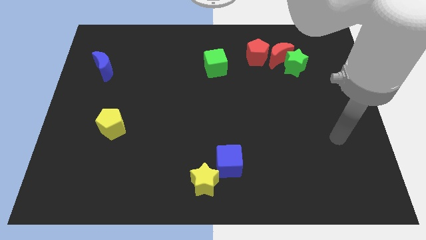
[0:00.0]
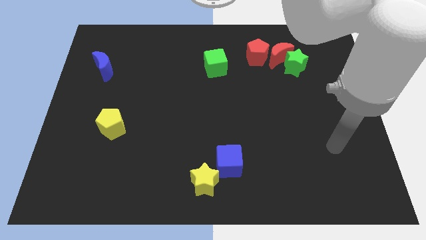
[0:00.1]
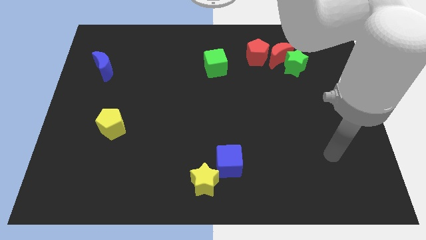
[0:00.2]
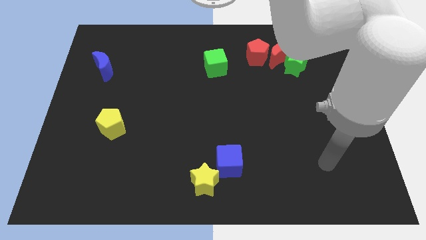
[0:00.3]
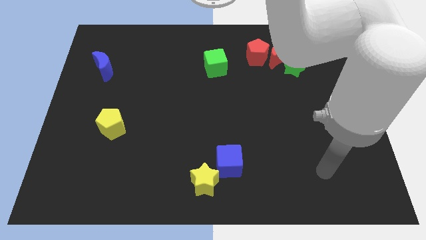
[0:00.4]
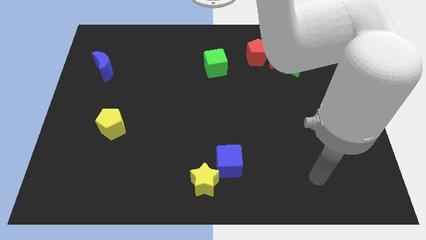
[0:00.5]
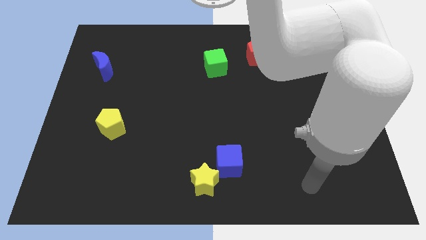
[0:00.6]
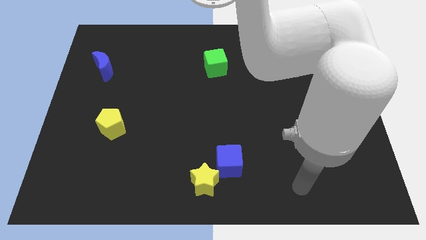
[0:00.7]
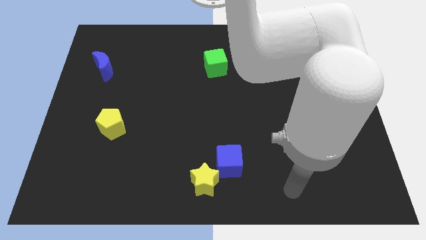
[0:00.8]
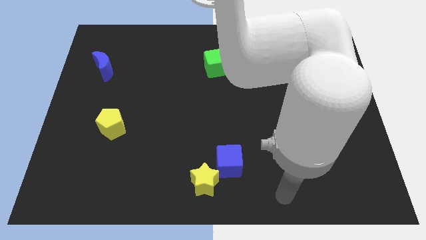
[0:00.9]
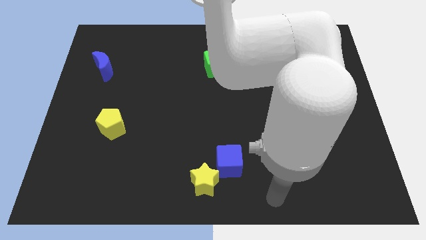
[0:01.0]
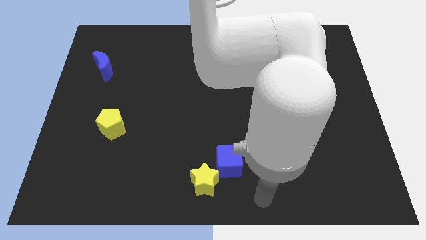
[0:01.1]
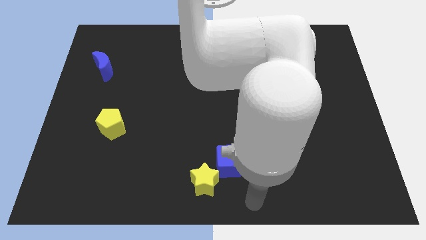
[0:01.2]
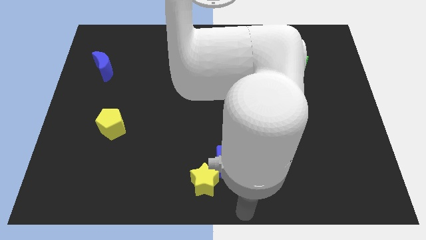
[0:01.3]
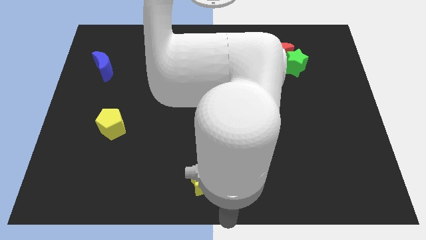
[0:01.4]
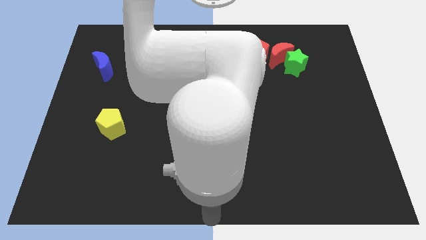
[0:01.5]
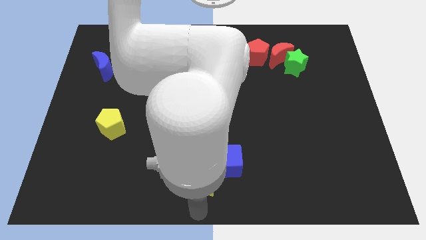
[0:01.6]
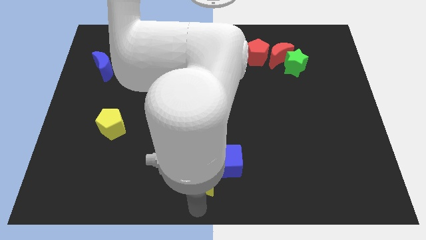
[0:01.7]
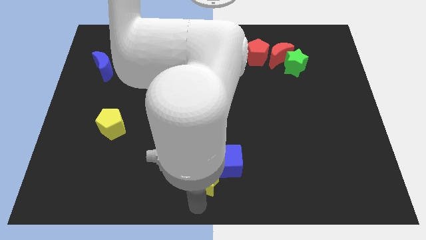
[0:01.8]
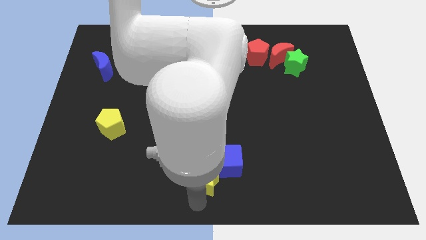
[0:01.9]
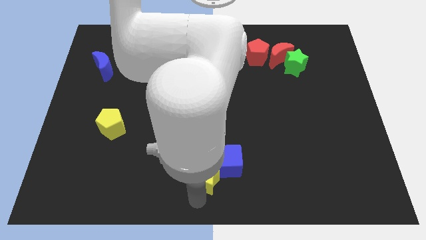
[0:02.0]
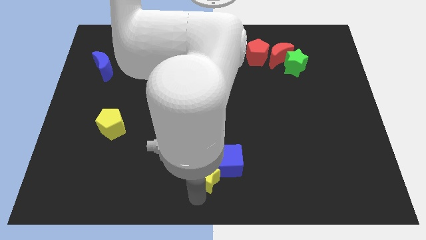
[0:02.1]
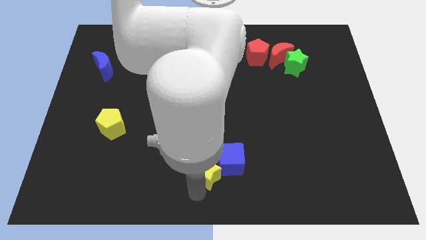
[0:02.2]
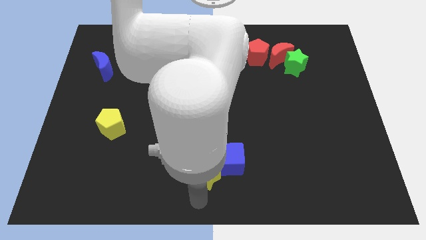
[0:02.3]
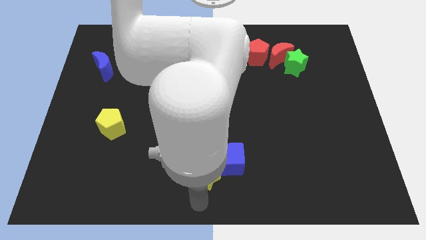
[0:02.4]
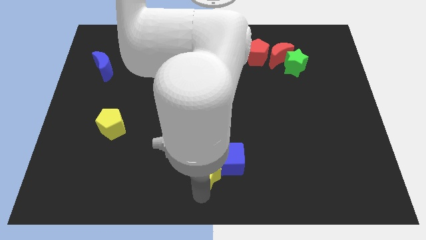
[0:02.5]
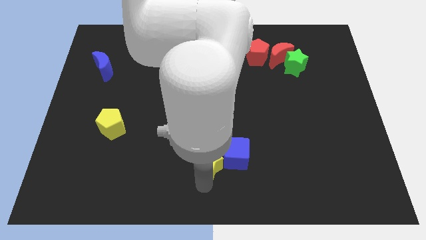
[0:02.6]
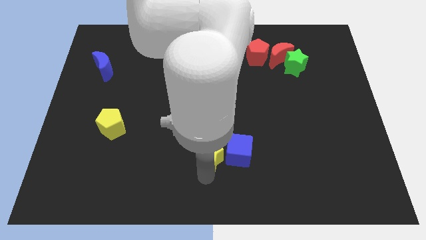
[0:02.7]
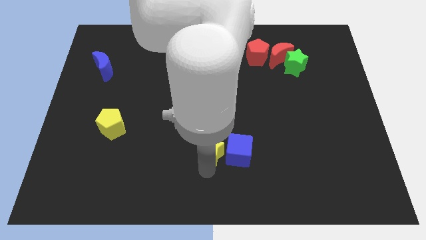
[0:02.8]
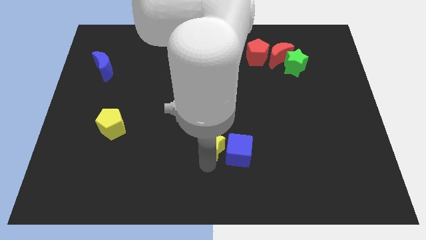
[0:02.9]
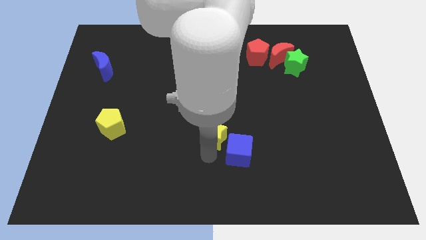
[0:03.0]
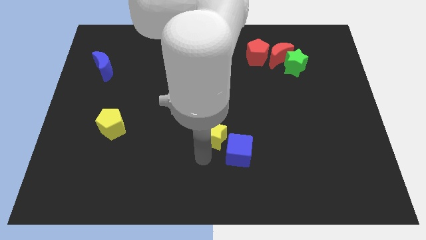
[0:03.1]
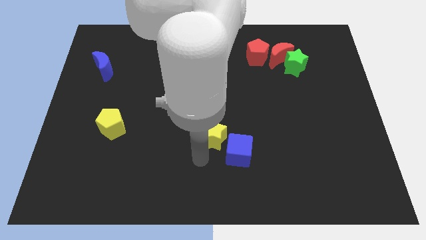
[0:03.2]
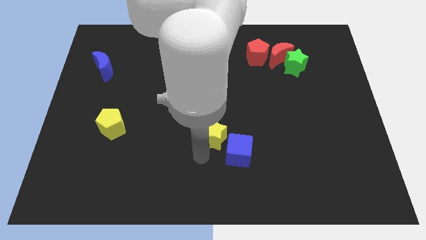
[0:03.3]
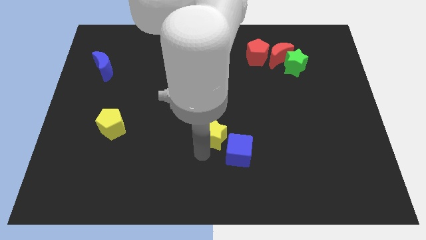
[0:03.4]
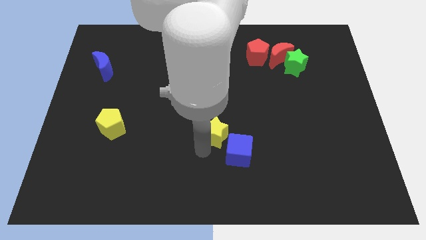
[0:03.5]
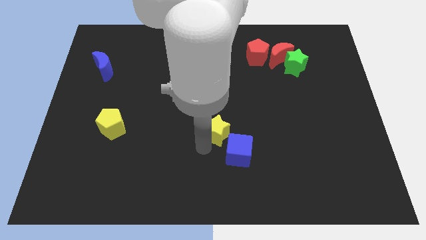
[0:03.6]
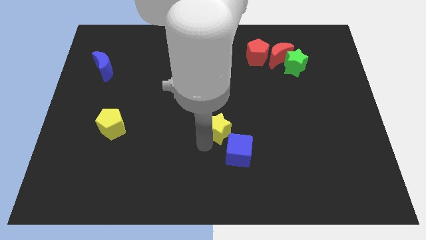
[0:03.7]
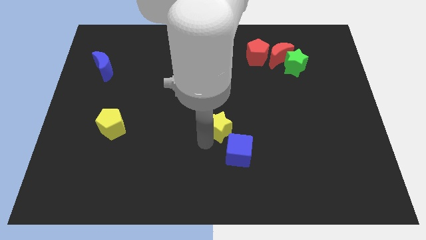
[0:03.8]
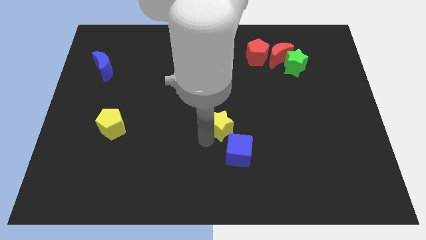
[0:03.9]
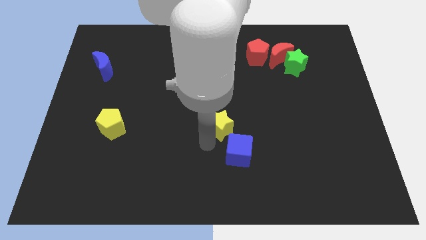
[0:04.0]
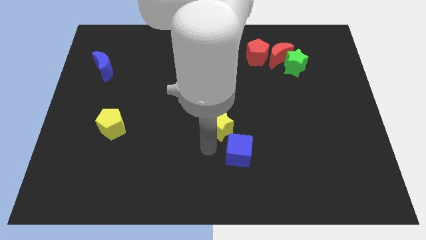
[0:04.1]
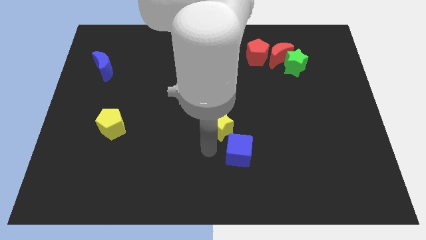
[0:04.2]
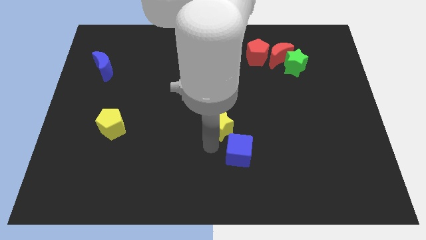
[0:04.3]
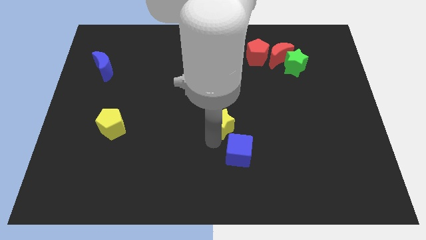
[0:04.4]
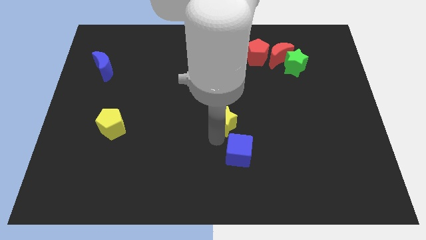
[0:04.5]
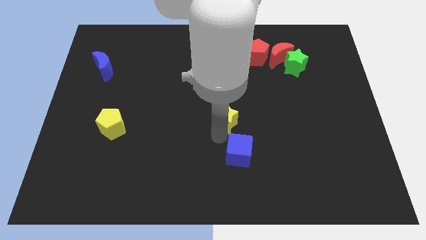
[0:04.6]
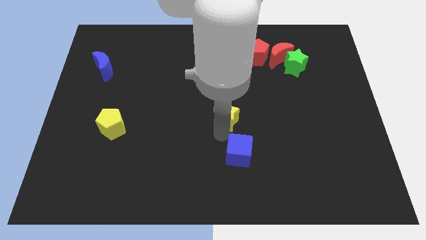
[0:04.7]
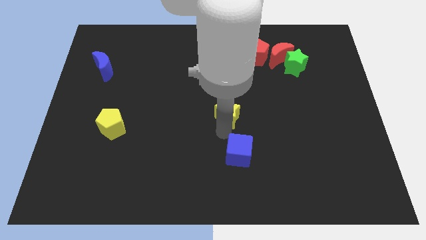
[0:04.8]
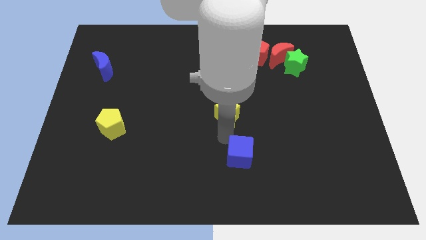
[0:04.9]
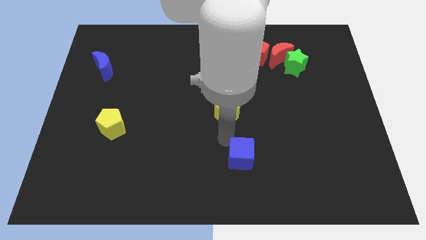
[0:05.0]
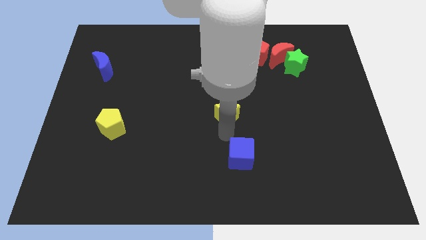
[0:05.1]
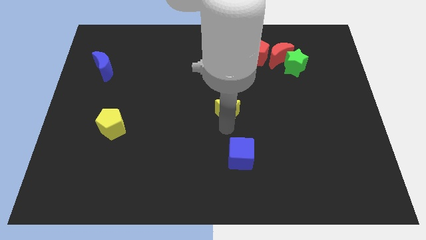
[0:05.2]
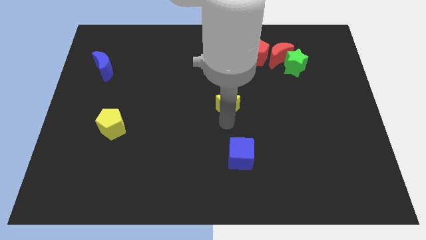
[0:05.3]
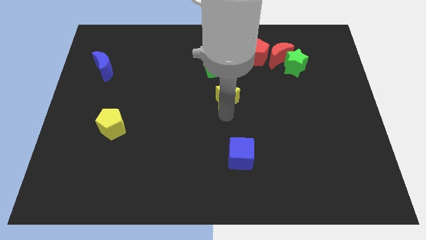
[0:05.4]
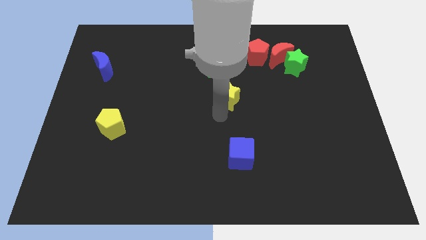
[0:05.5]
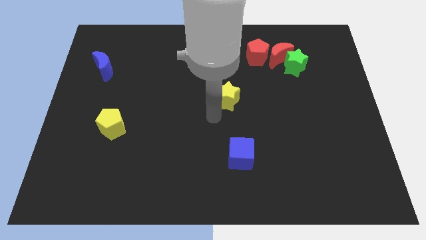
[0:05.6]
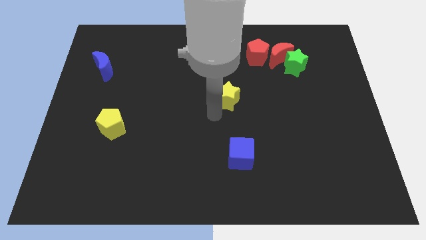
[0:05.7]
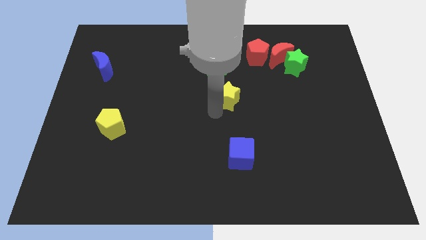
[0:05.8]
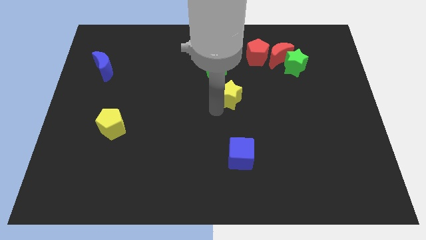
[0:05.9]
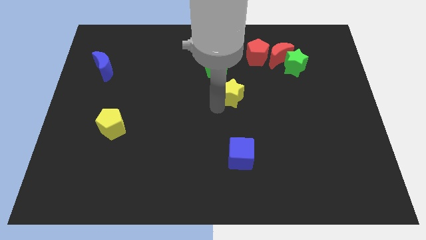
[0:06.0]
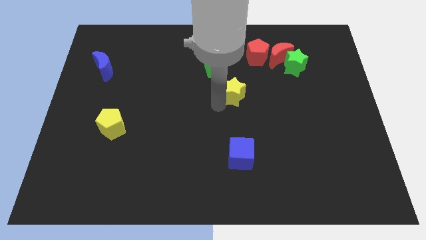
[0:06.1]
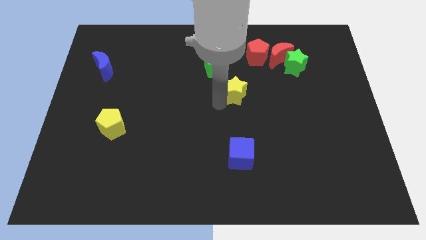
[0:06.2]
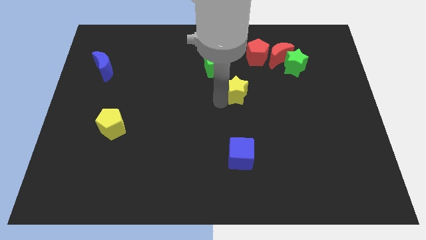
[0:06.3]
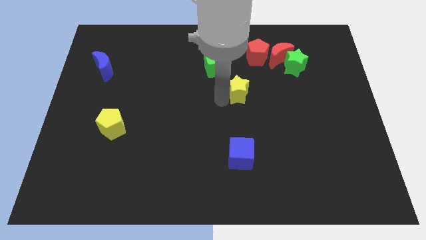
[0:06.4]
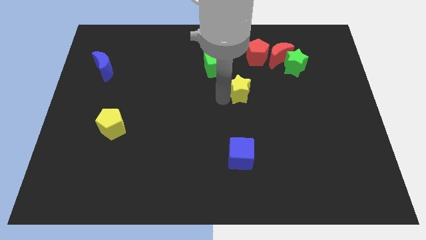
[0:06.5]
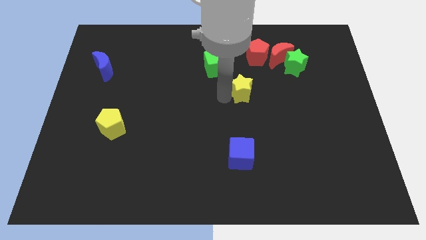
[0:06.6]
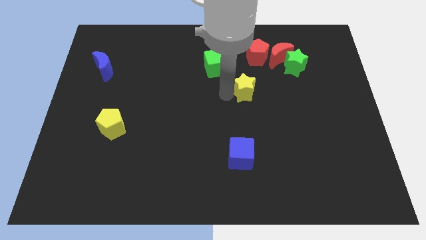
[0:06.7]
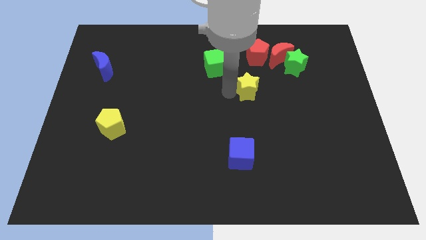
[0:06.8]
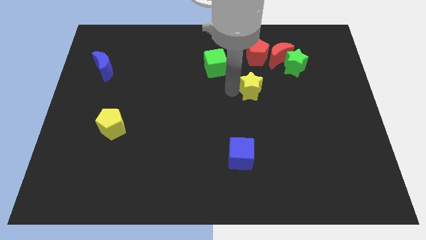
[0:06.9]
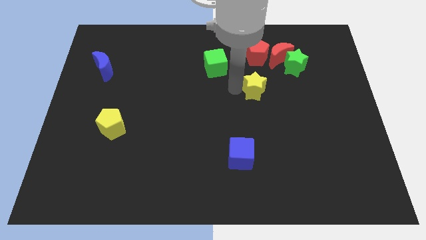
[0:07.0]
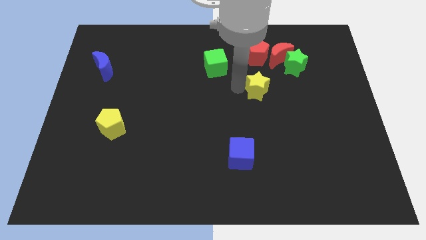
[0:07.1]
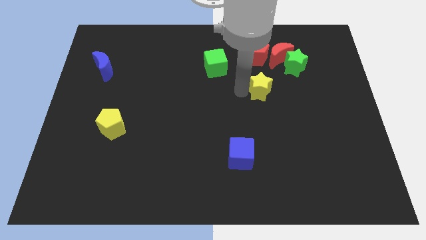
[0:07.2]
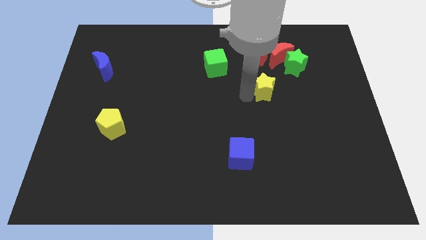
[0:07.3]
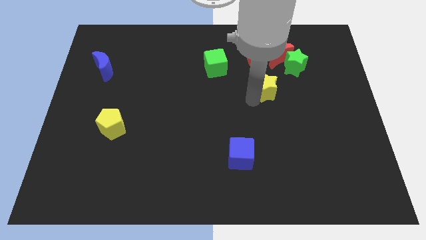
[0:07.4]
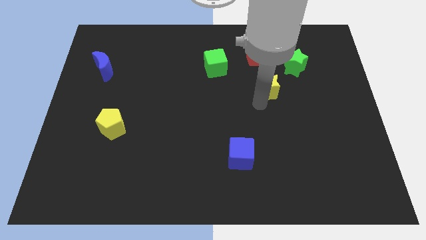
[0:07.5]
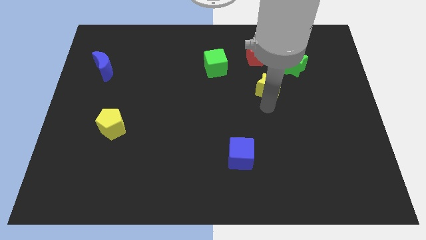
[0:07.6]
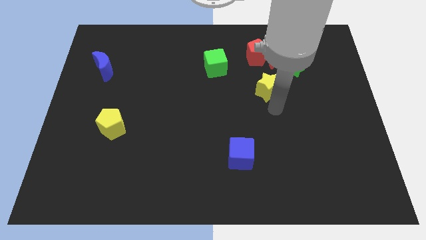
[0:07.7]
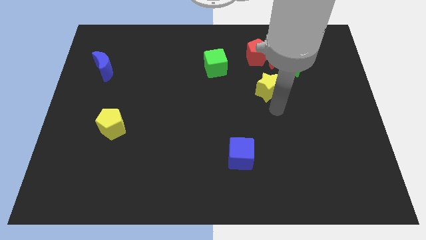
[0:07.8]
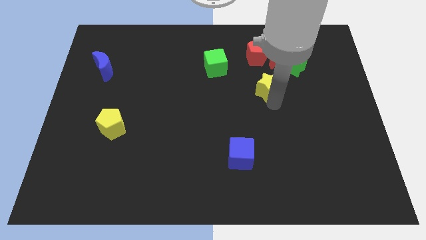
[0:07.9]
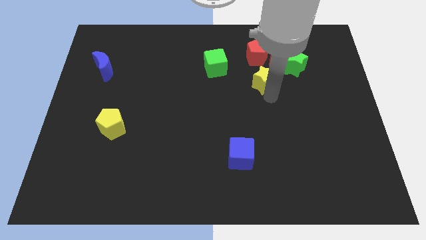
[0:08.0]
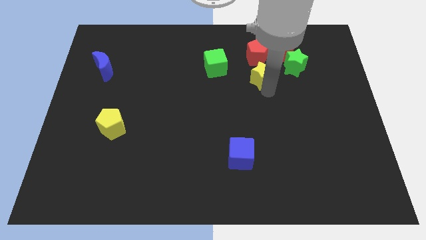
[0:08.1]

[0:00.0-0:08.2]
slide the yellow star right of the green cube
